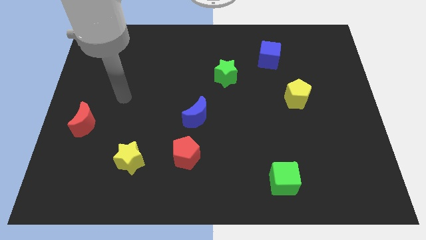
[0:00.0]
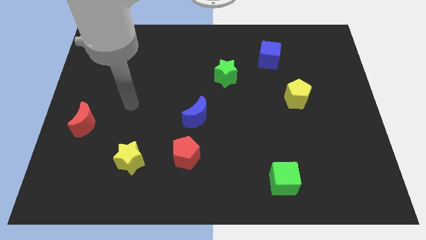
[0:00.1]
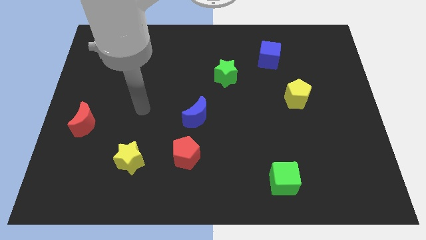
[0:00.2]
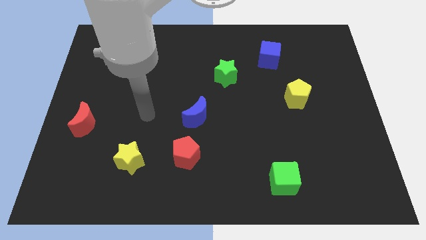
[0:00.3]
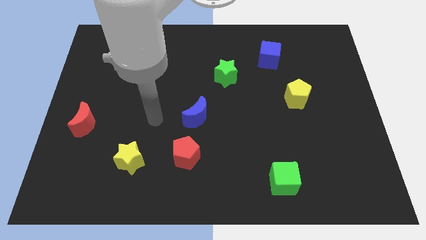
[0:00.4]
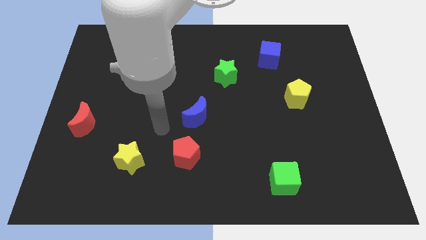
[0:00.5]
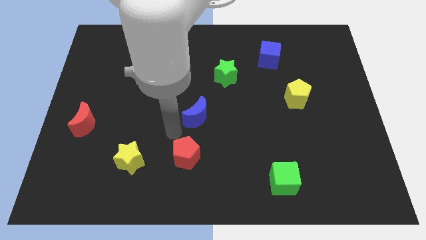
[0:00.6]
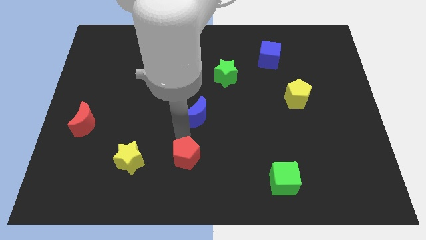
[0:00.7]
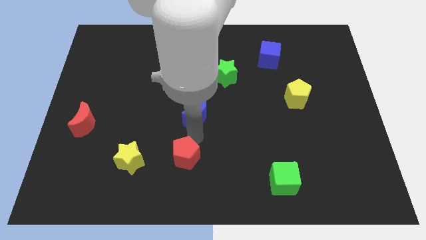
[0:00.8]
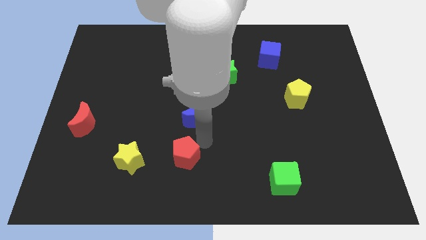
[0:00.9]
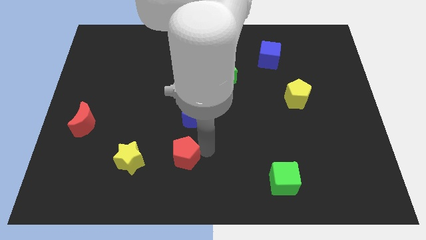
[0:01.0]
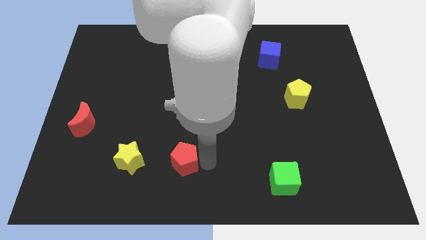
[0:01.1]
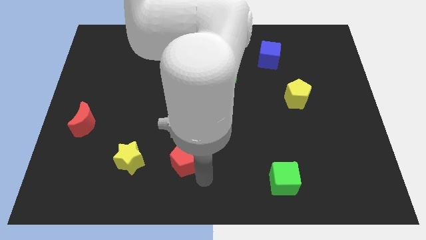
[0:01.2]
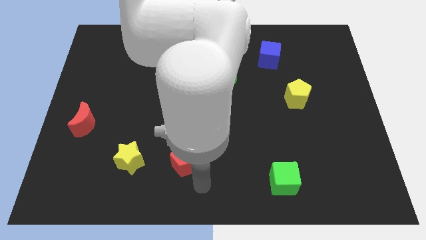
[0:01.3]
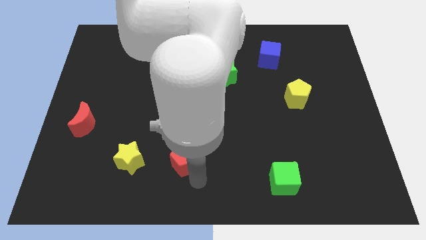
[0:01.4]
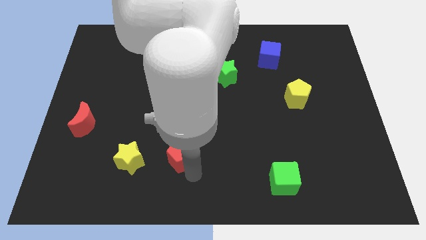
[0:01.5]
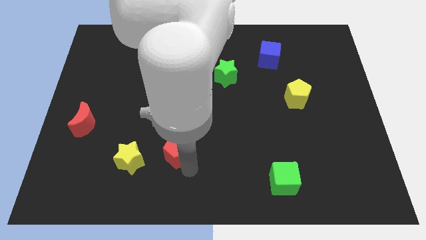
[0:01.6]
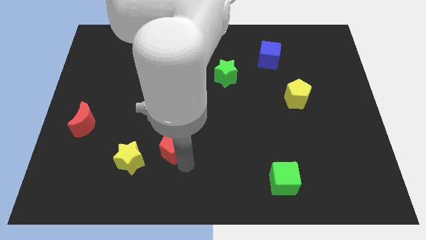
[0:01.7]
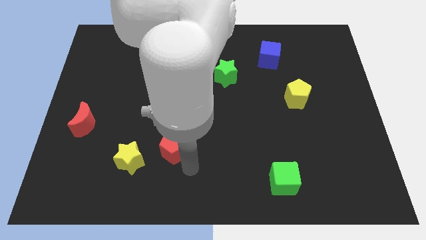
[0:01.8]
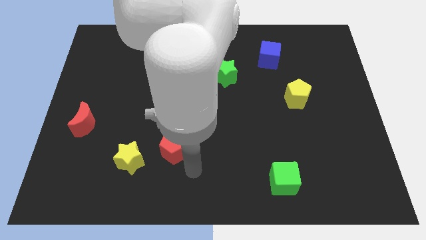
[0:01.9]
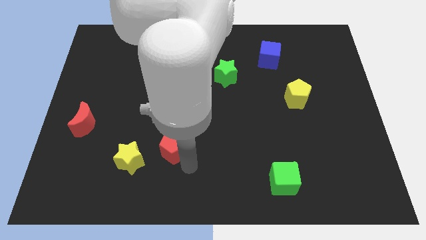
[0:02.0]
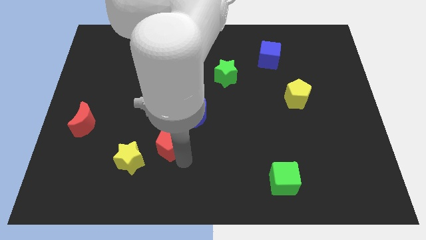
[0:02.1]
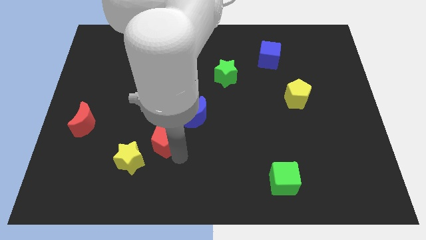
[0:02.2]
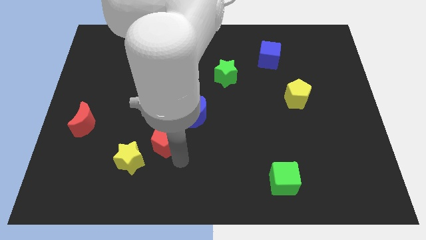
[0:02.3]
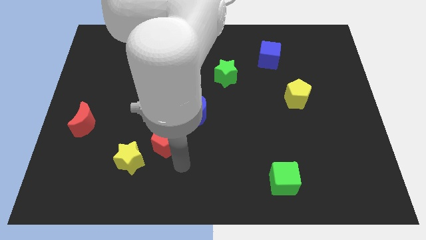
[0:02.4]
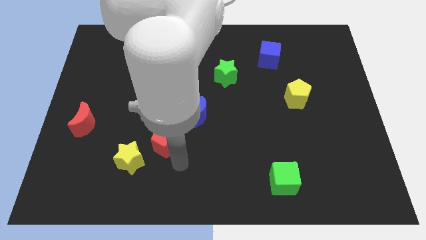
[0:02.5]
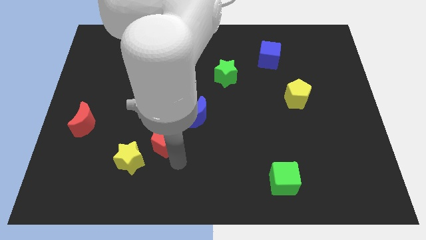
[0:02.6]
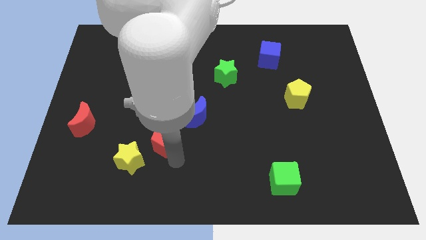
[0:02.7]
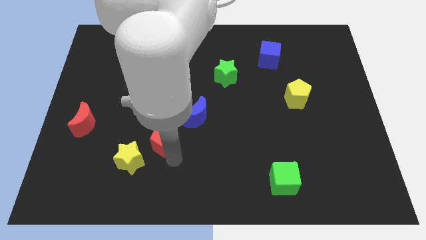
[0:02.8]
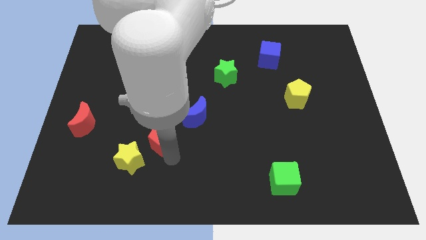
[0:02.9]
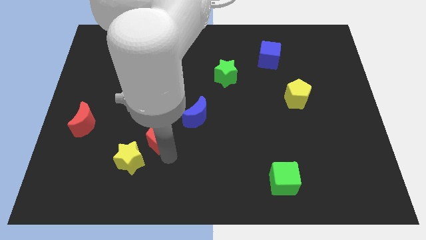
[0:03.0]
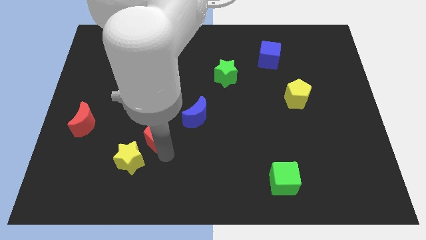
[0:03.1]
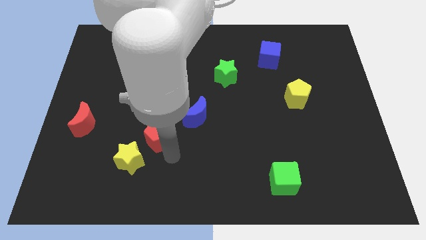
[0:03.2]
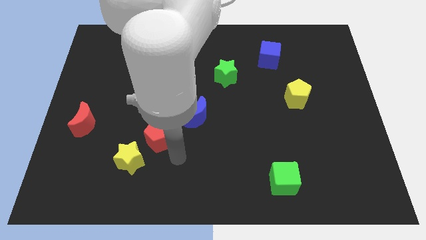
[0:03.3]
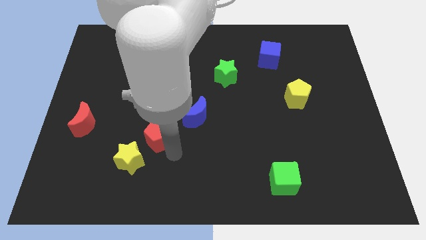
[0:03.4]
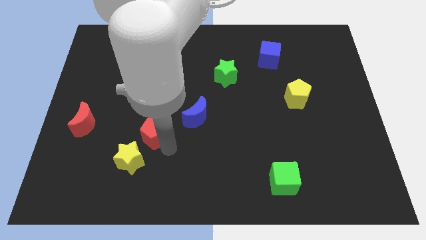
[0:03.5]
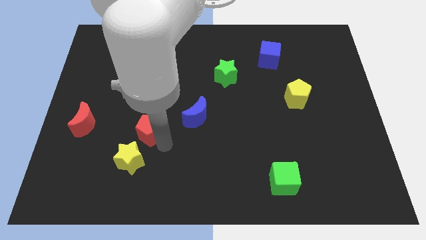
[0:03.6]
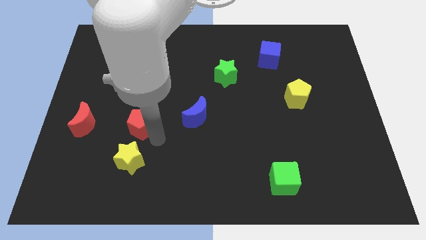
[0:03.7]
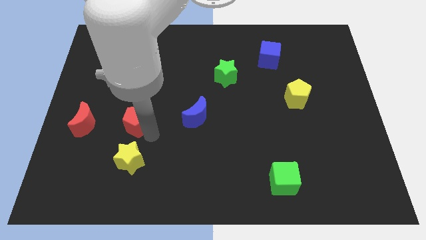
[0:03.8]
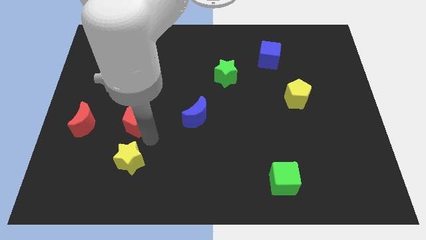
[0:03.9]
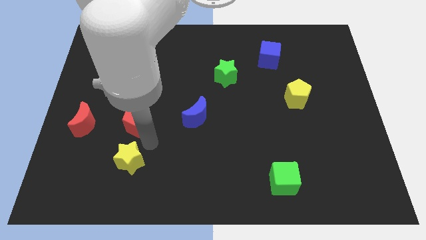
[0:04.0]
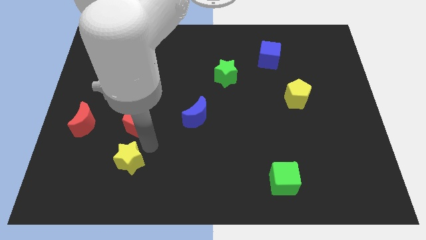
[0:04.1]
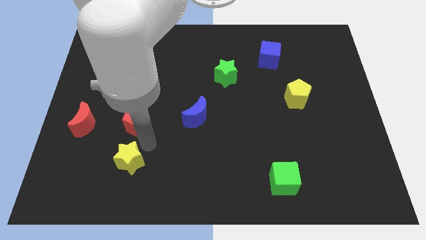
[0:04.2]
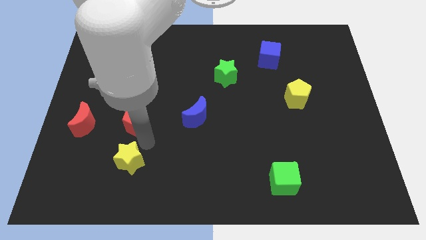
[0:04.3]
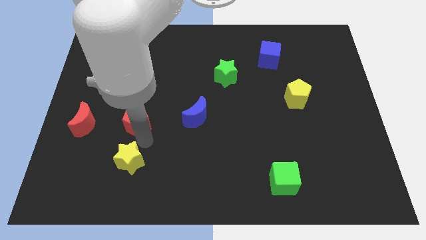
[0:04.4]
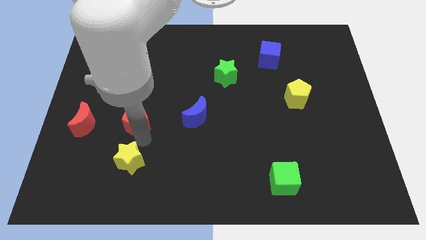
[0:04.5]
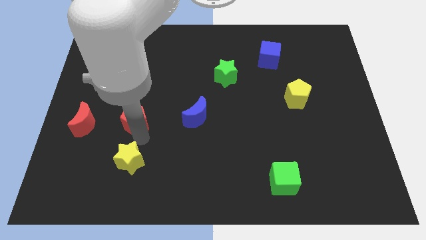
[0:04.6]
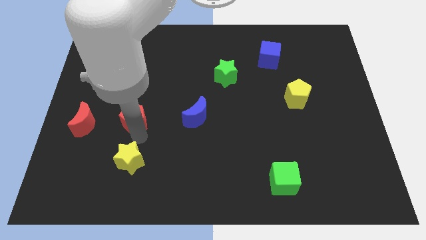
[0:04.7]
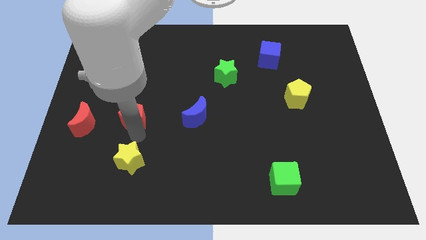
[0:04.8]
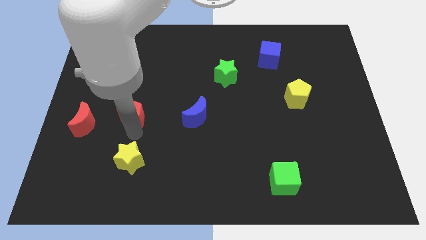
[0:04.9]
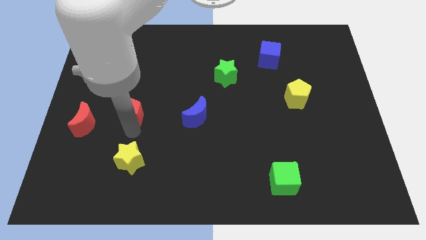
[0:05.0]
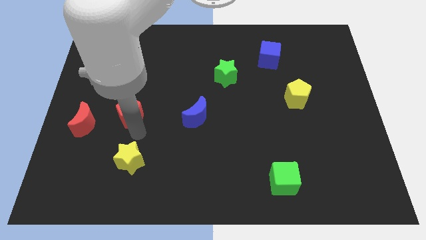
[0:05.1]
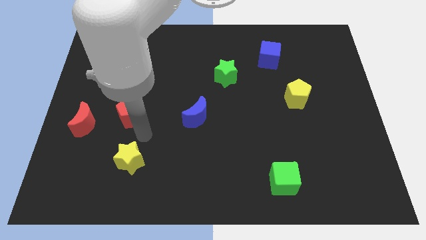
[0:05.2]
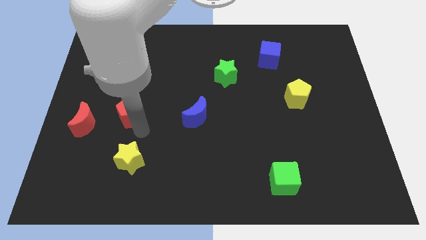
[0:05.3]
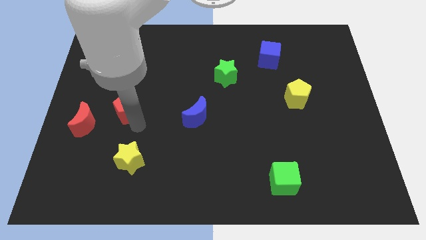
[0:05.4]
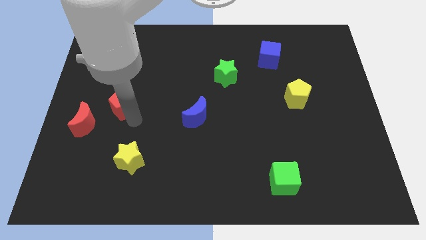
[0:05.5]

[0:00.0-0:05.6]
push the red pentagon up and then left

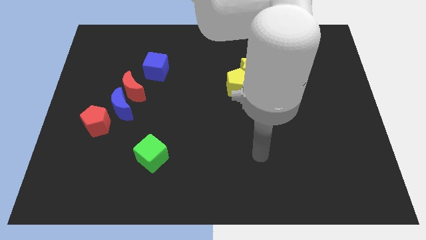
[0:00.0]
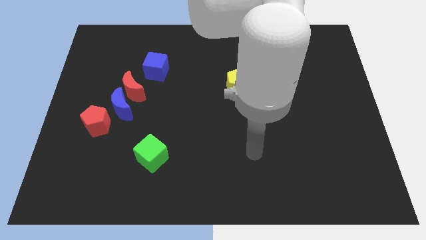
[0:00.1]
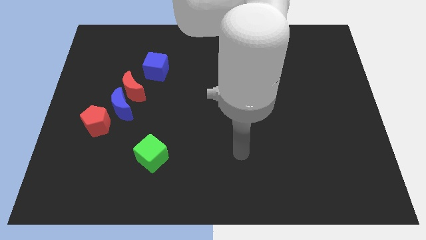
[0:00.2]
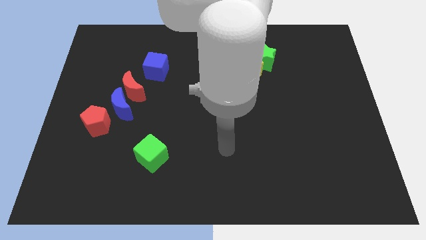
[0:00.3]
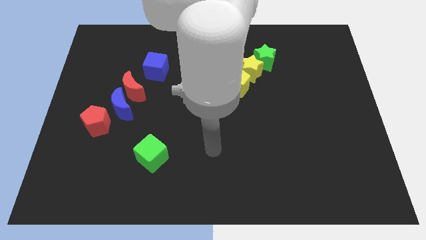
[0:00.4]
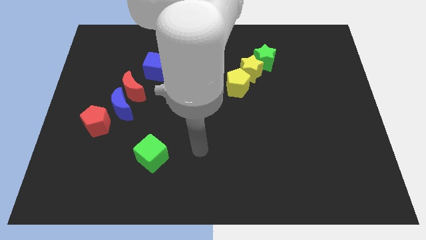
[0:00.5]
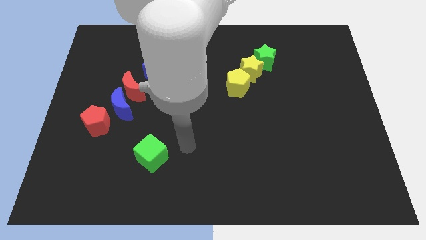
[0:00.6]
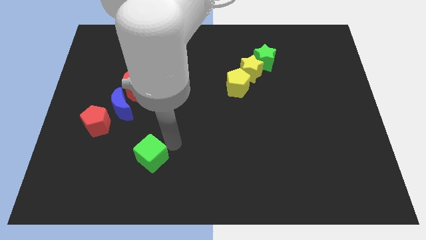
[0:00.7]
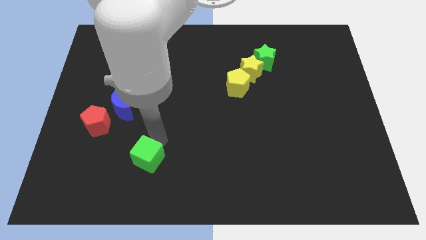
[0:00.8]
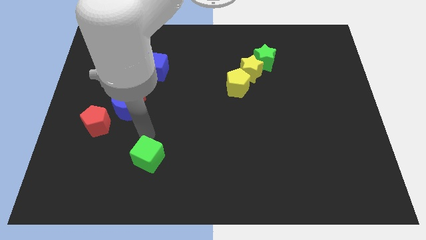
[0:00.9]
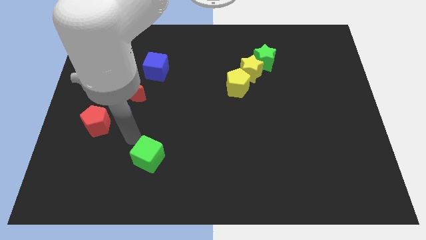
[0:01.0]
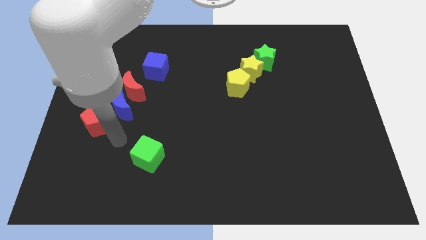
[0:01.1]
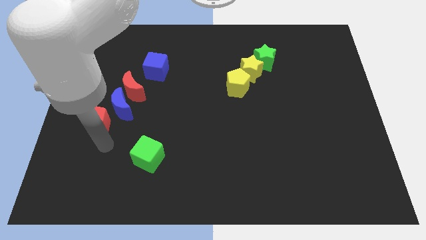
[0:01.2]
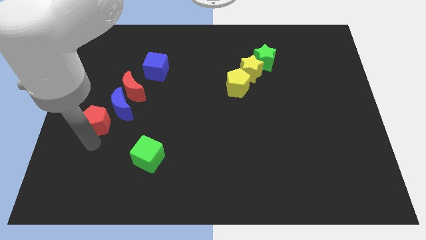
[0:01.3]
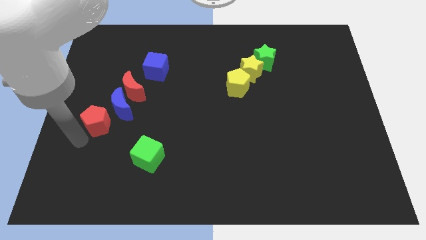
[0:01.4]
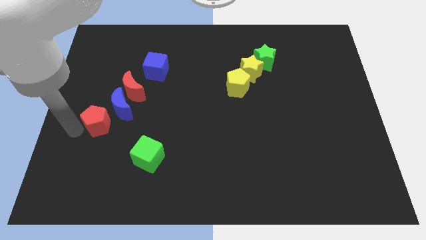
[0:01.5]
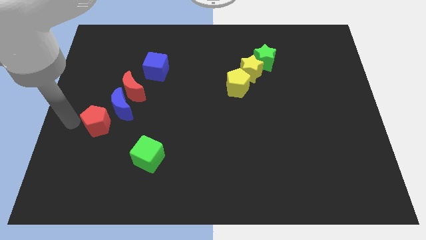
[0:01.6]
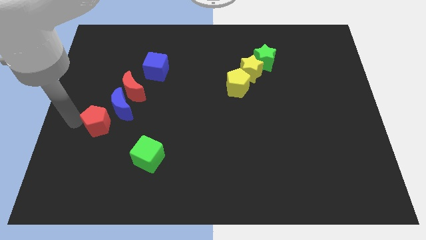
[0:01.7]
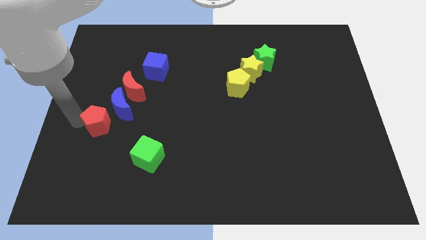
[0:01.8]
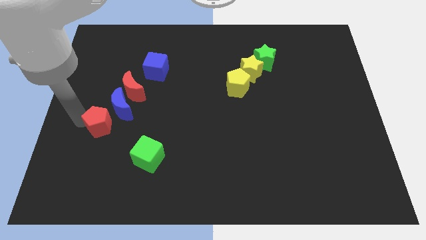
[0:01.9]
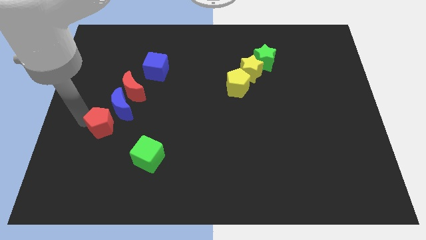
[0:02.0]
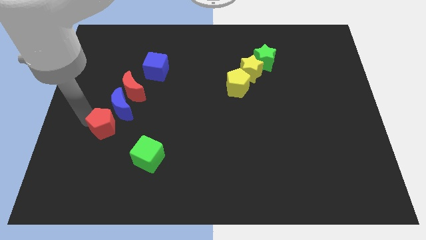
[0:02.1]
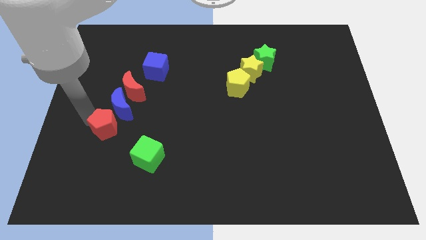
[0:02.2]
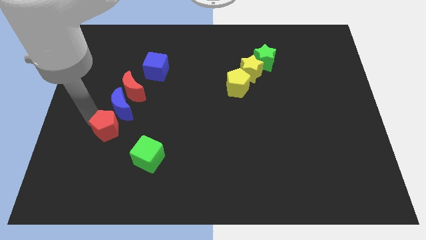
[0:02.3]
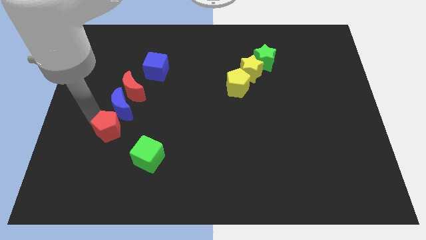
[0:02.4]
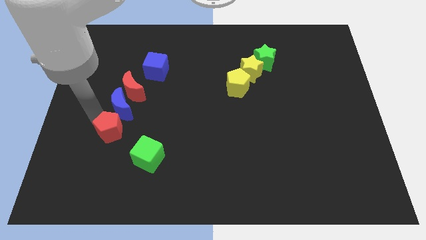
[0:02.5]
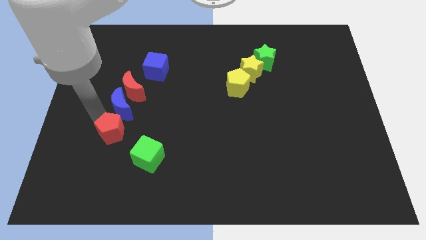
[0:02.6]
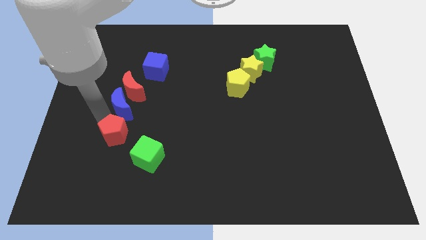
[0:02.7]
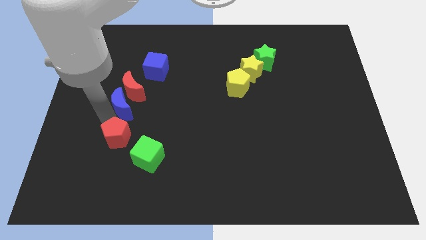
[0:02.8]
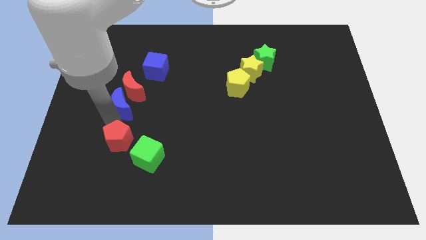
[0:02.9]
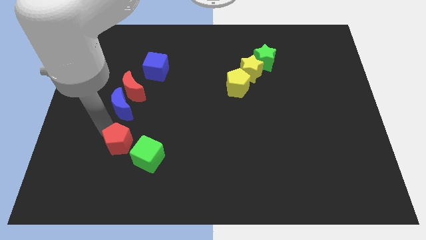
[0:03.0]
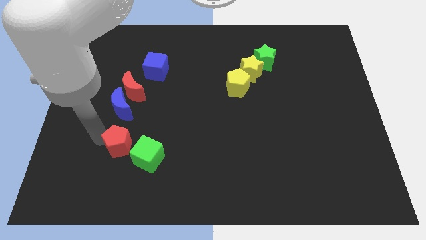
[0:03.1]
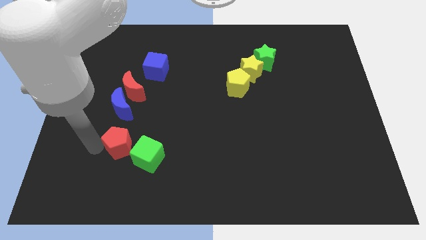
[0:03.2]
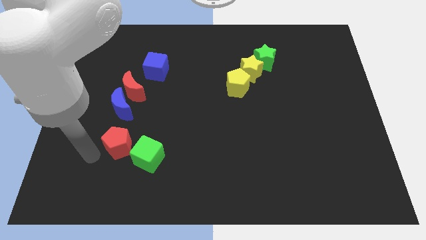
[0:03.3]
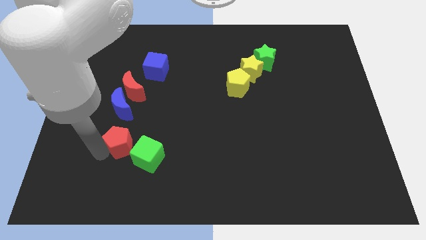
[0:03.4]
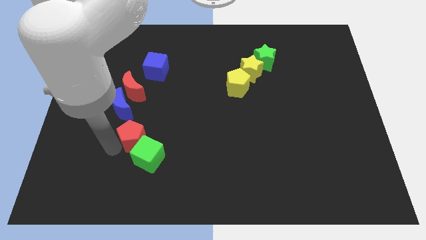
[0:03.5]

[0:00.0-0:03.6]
slide the red pentagon a little bit to the right
